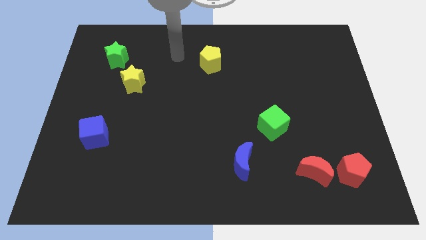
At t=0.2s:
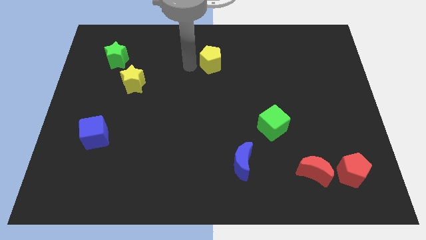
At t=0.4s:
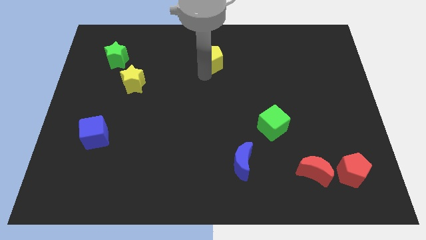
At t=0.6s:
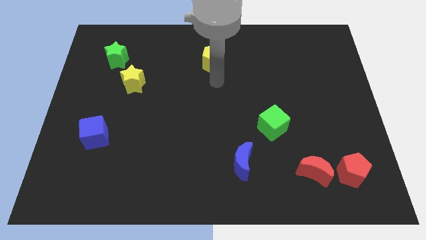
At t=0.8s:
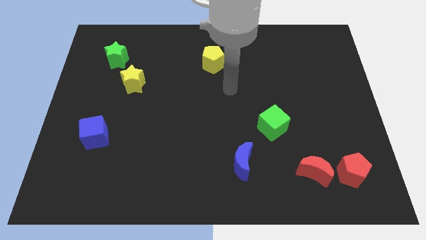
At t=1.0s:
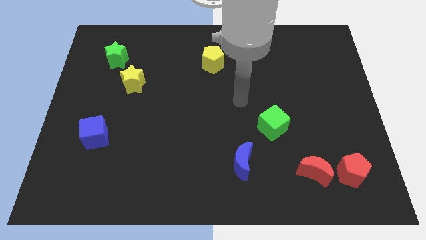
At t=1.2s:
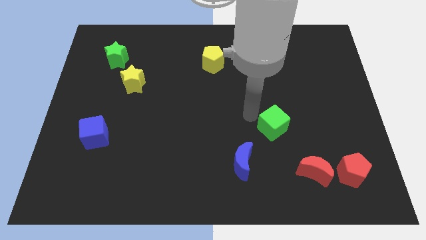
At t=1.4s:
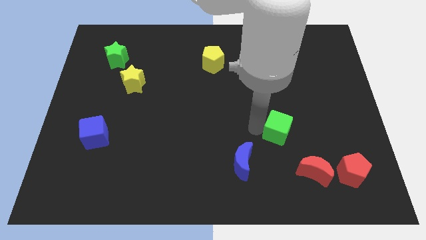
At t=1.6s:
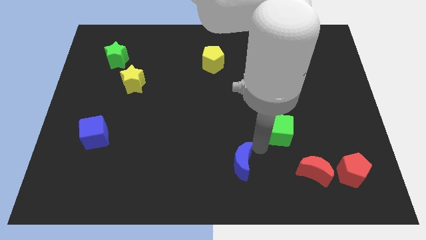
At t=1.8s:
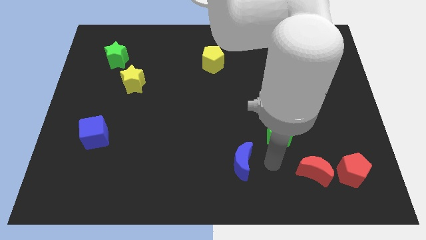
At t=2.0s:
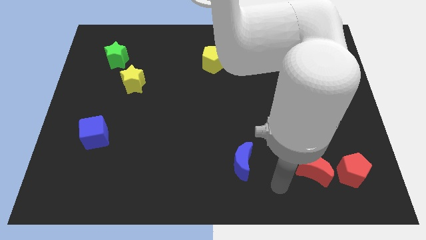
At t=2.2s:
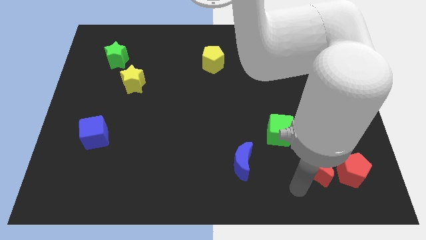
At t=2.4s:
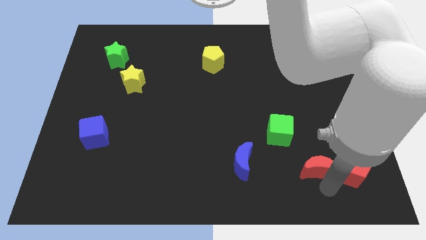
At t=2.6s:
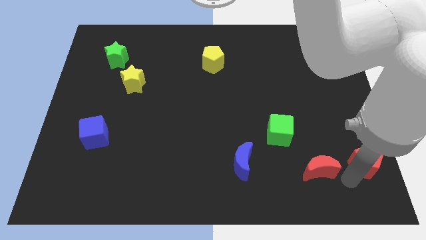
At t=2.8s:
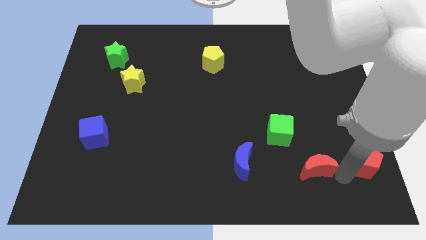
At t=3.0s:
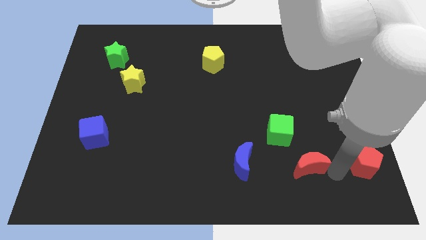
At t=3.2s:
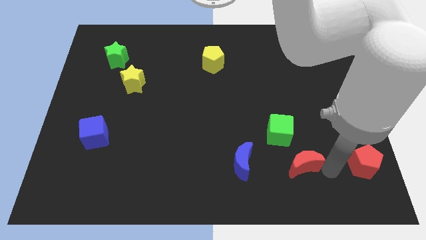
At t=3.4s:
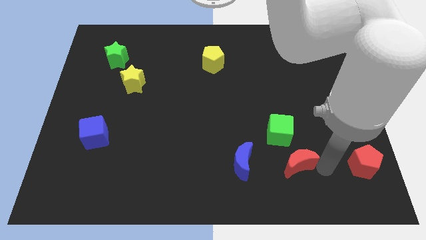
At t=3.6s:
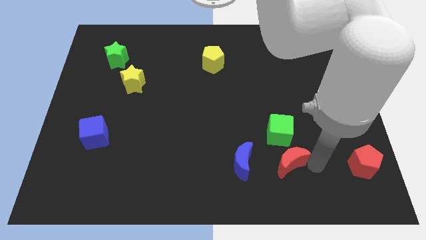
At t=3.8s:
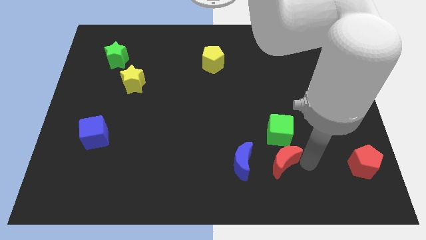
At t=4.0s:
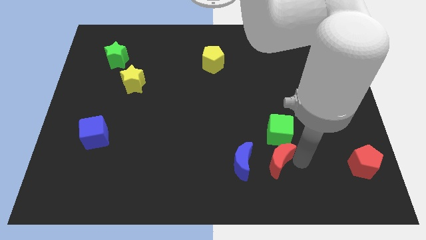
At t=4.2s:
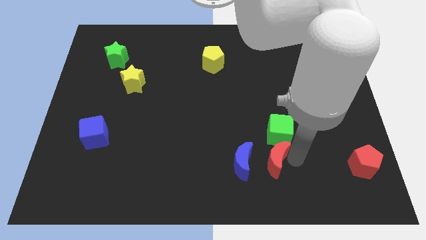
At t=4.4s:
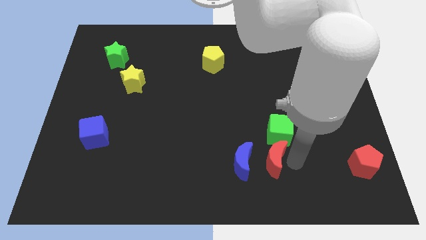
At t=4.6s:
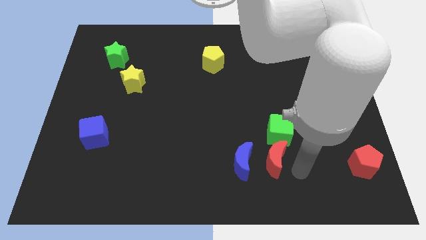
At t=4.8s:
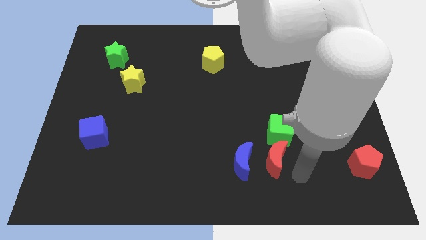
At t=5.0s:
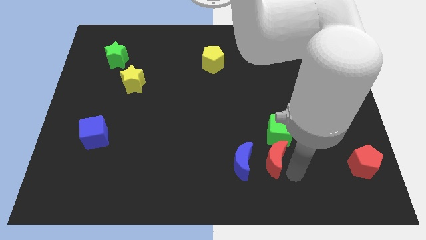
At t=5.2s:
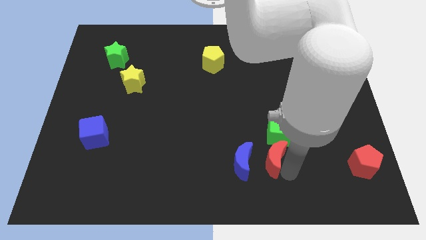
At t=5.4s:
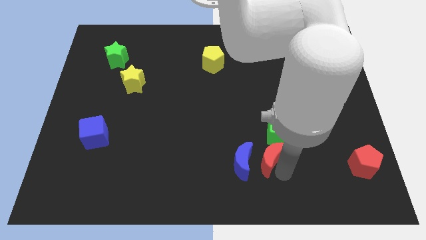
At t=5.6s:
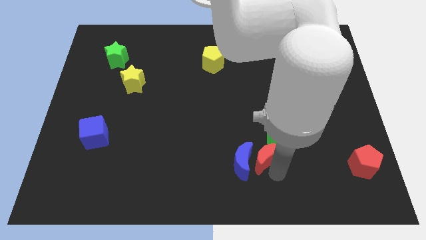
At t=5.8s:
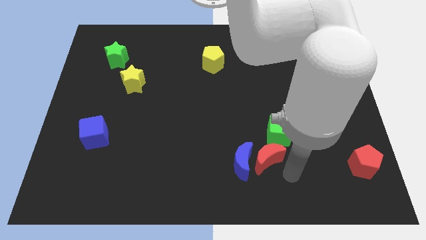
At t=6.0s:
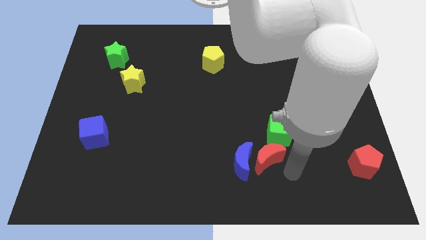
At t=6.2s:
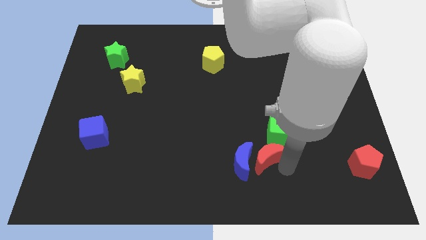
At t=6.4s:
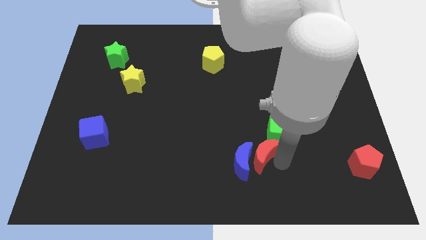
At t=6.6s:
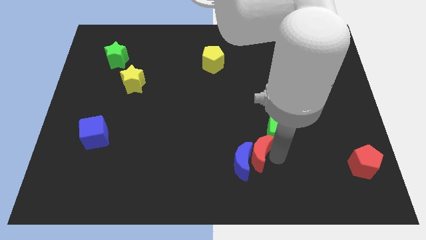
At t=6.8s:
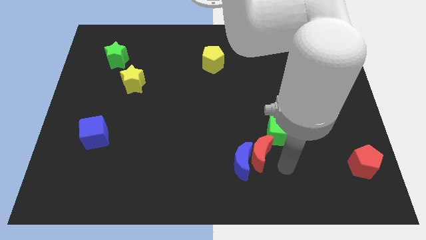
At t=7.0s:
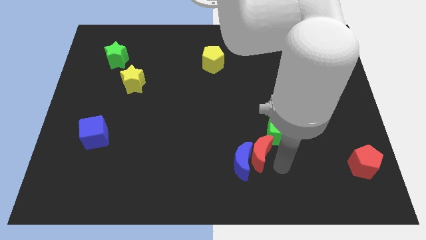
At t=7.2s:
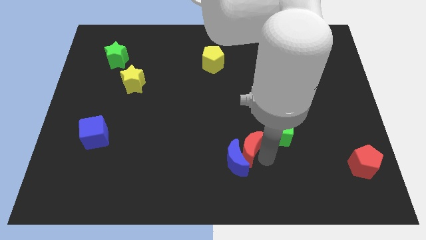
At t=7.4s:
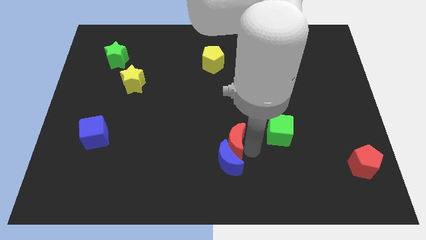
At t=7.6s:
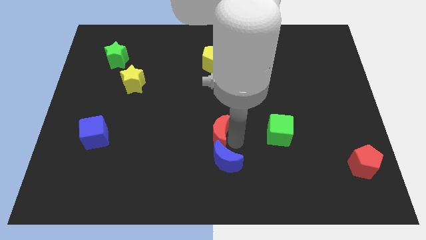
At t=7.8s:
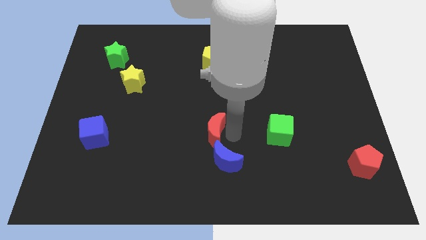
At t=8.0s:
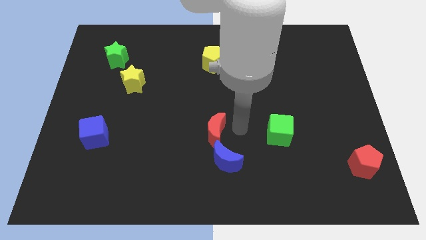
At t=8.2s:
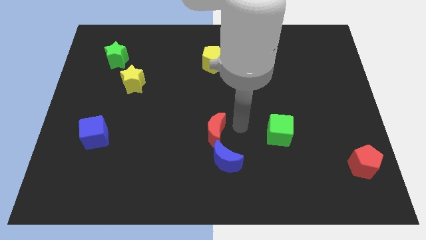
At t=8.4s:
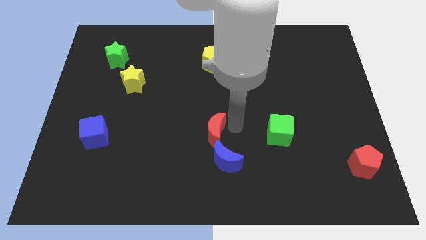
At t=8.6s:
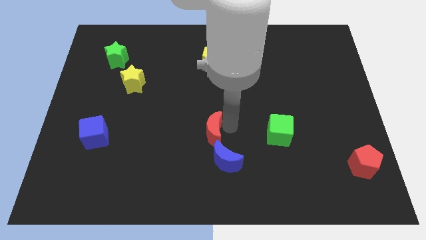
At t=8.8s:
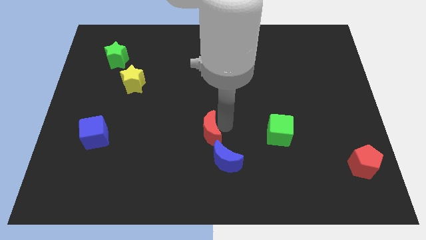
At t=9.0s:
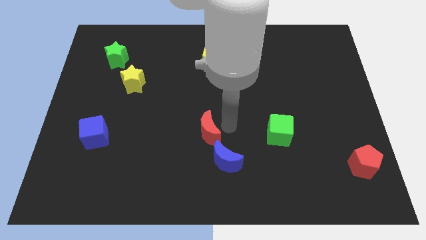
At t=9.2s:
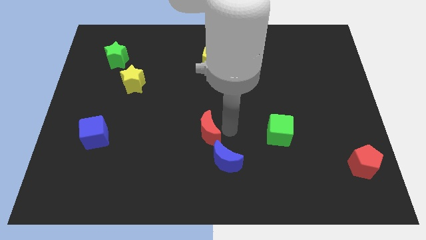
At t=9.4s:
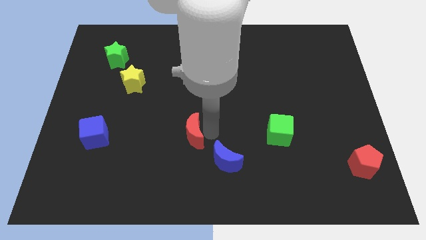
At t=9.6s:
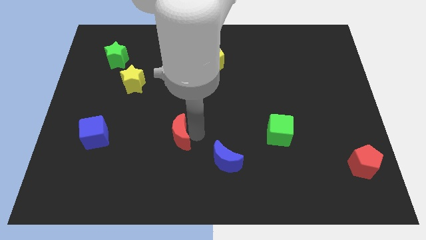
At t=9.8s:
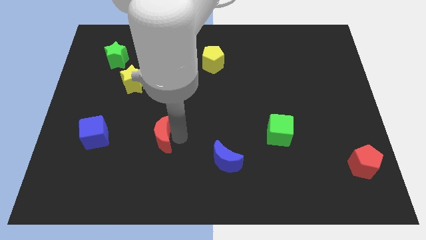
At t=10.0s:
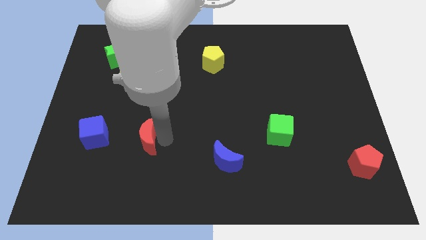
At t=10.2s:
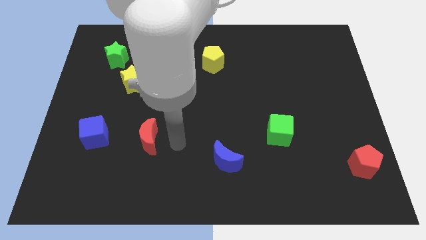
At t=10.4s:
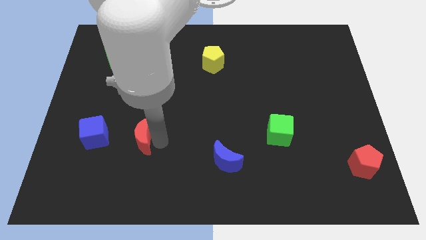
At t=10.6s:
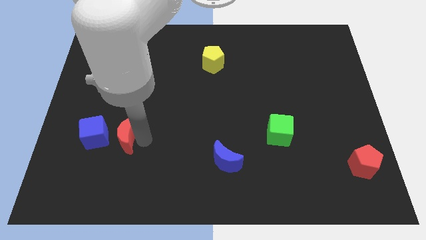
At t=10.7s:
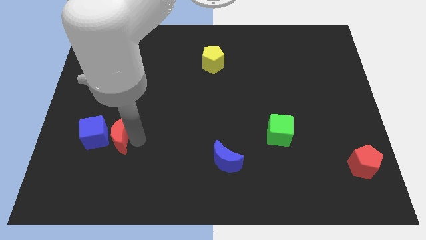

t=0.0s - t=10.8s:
move the red moon next to the blue cube

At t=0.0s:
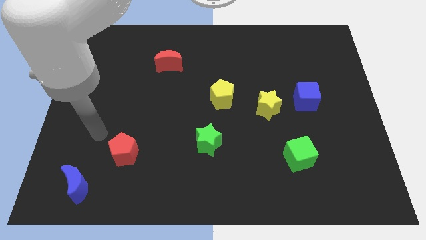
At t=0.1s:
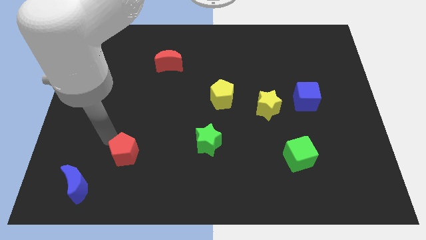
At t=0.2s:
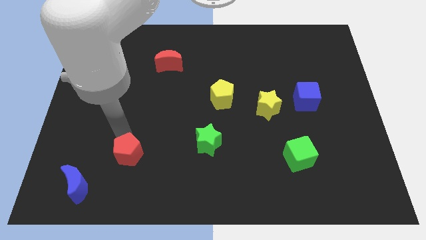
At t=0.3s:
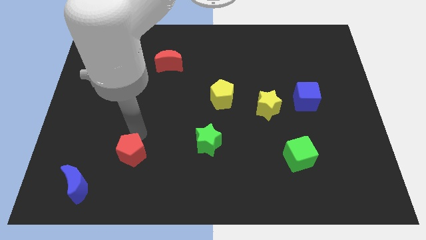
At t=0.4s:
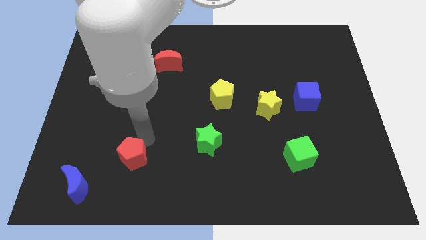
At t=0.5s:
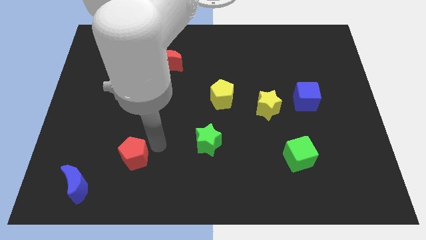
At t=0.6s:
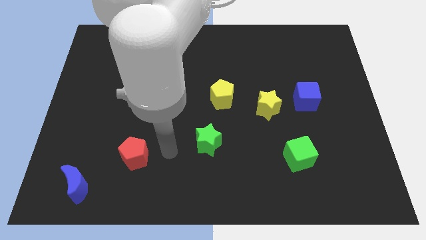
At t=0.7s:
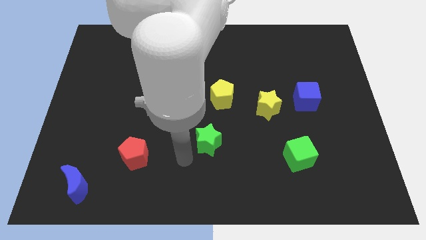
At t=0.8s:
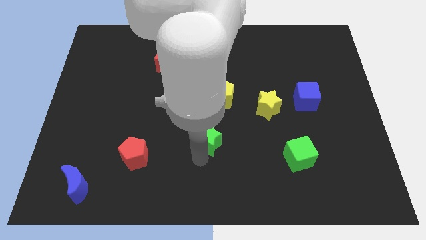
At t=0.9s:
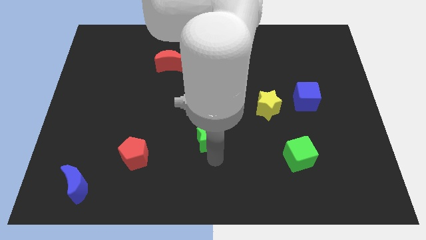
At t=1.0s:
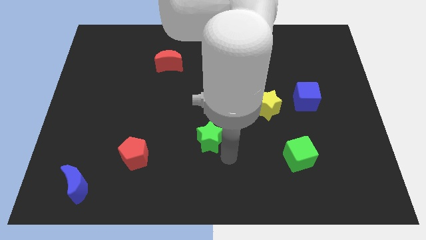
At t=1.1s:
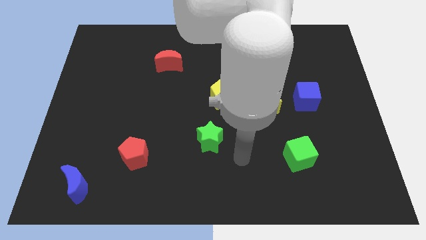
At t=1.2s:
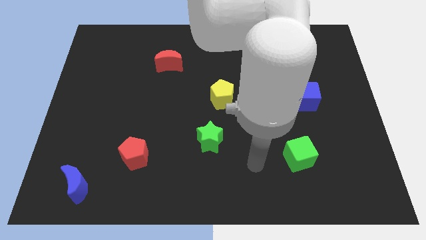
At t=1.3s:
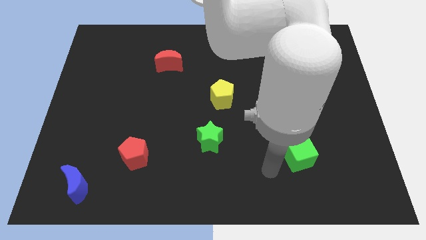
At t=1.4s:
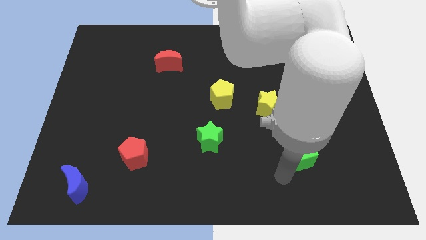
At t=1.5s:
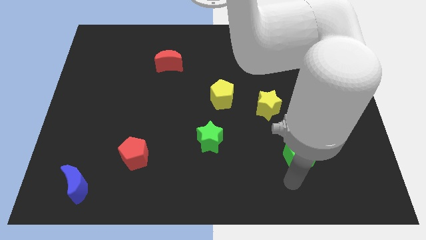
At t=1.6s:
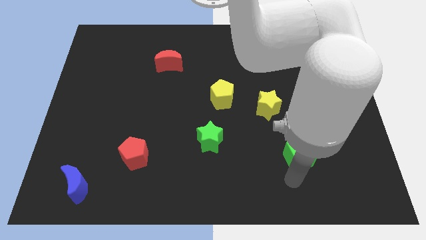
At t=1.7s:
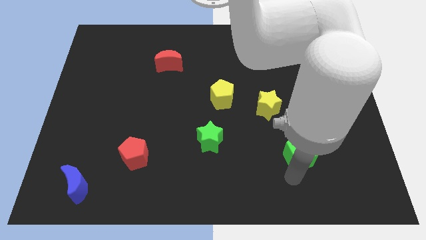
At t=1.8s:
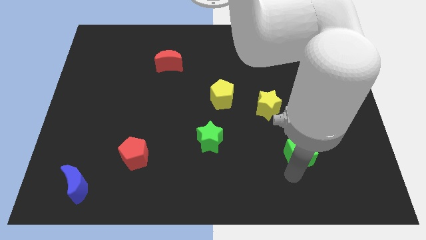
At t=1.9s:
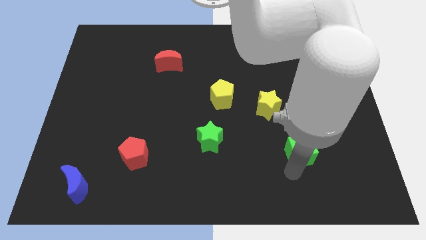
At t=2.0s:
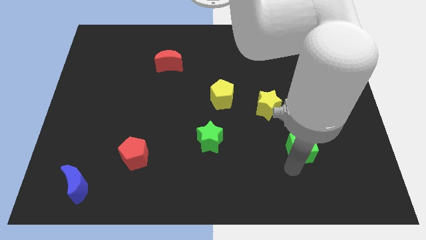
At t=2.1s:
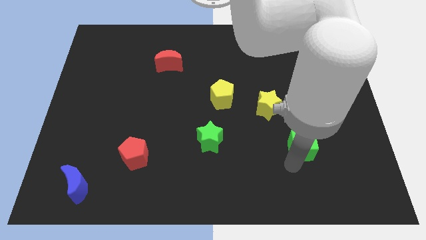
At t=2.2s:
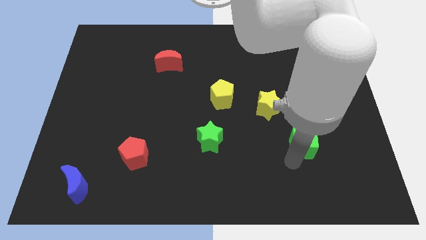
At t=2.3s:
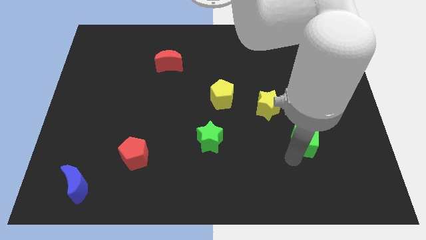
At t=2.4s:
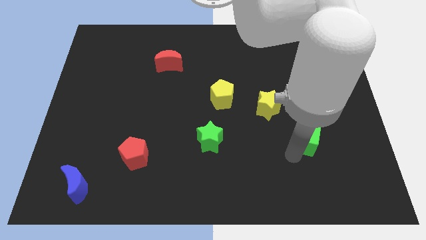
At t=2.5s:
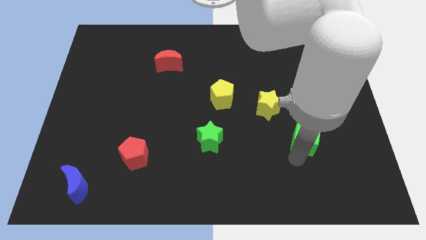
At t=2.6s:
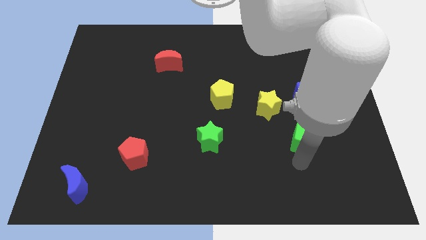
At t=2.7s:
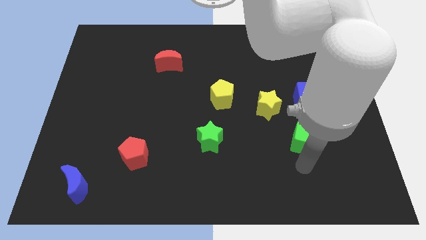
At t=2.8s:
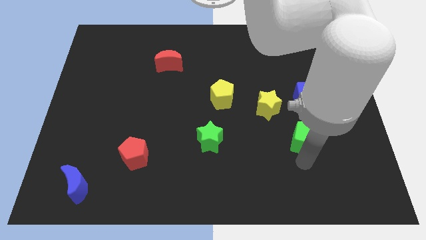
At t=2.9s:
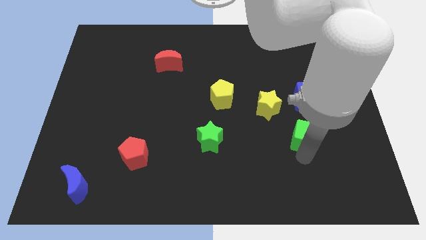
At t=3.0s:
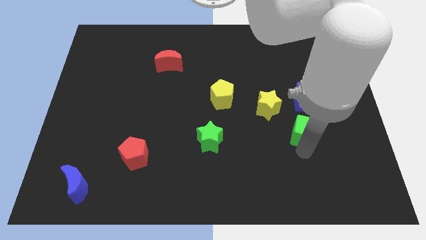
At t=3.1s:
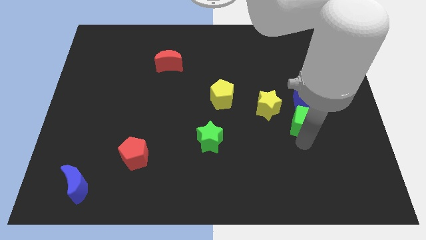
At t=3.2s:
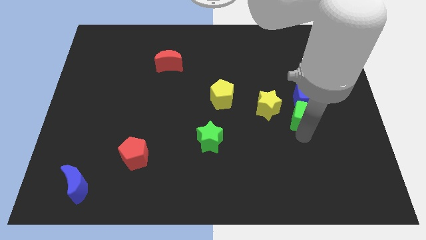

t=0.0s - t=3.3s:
move the green cube to the blue cube
